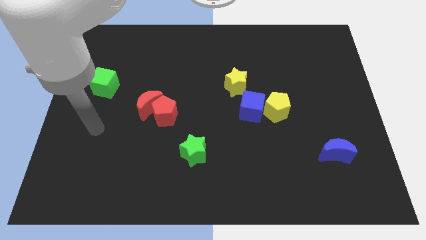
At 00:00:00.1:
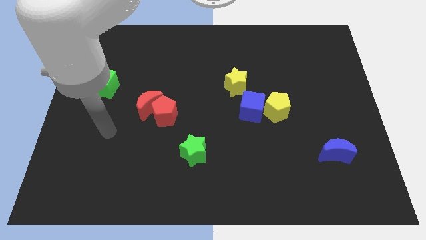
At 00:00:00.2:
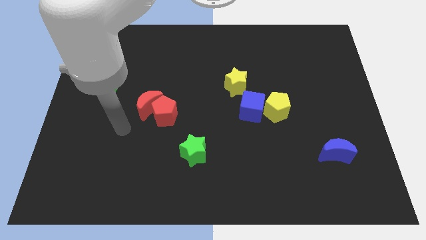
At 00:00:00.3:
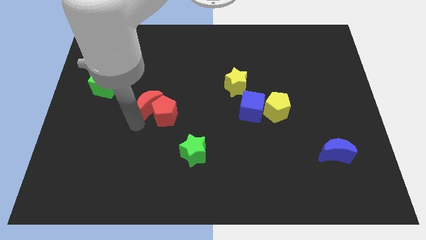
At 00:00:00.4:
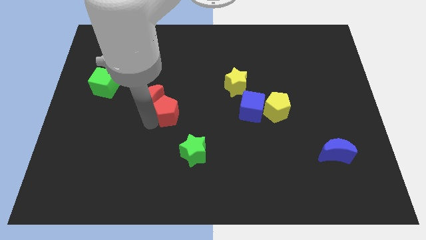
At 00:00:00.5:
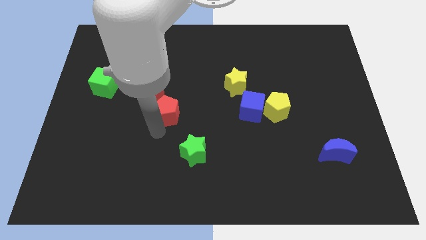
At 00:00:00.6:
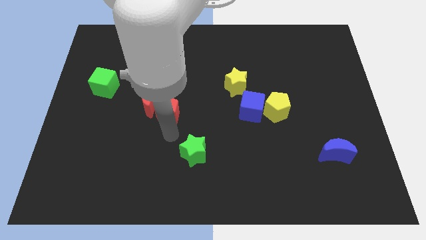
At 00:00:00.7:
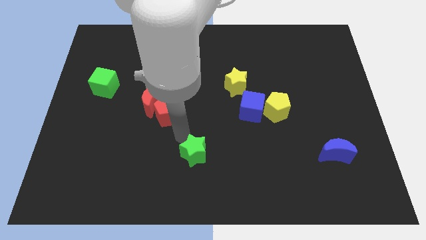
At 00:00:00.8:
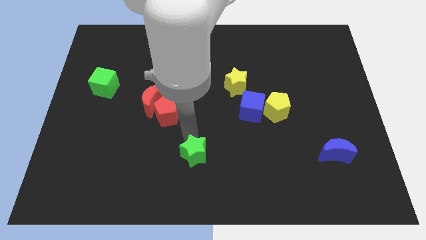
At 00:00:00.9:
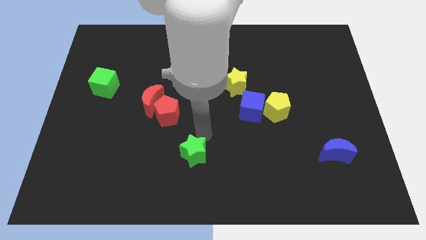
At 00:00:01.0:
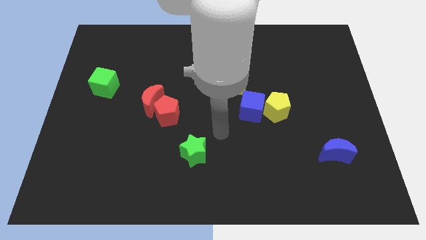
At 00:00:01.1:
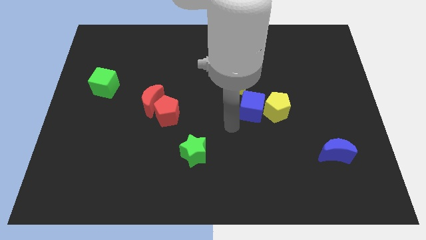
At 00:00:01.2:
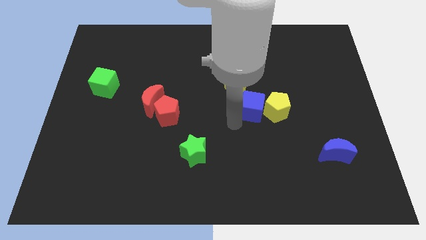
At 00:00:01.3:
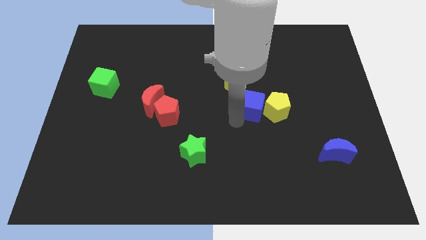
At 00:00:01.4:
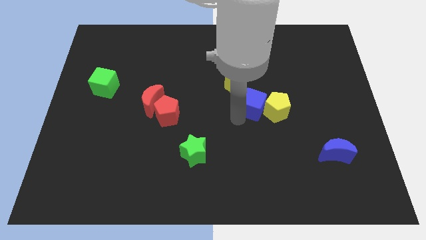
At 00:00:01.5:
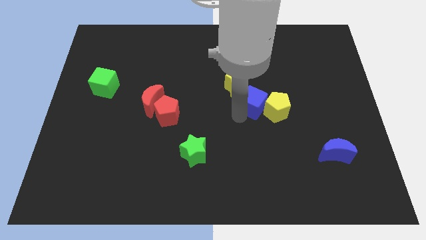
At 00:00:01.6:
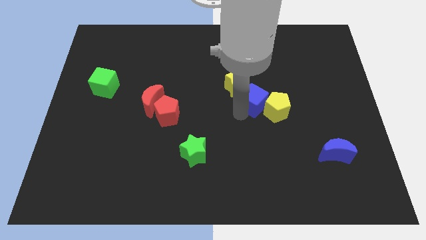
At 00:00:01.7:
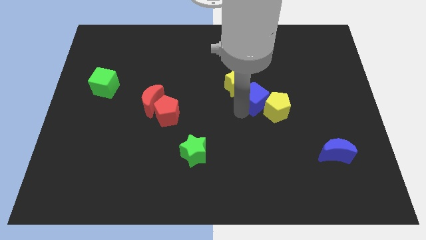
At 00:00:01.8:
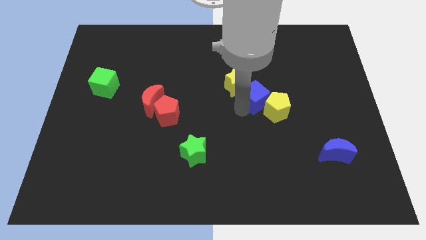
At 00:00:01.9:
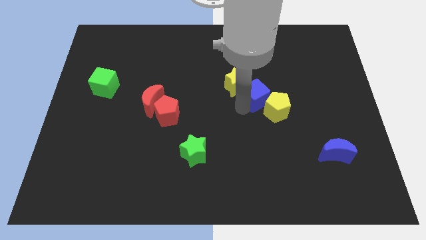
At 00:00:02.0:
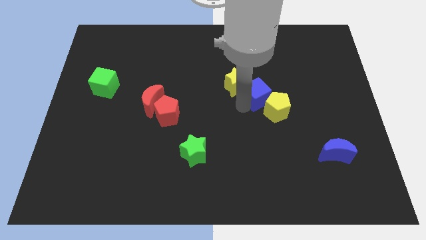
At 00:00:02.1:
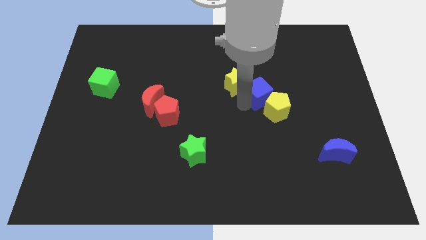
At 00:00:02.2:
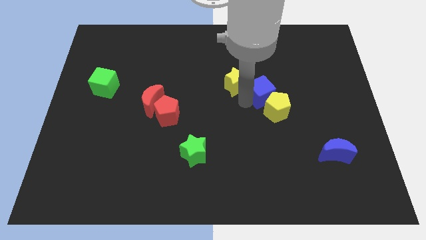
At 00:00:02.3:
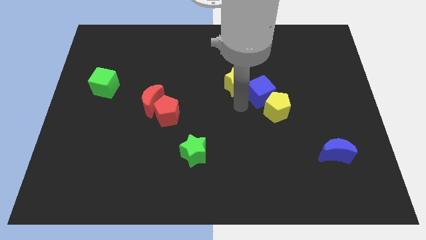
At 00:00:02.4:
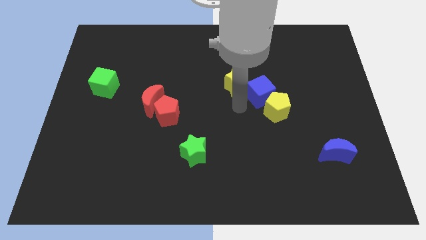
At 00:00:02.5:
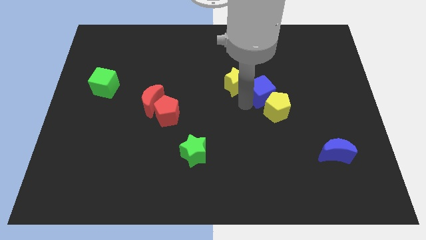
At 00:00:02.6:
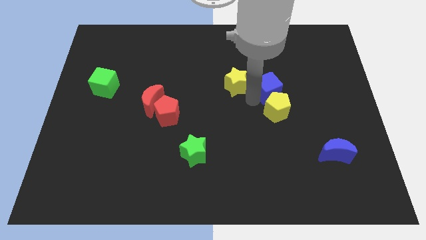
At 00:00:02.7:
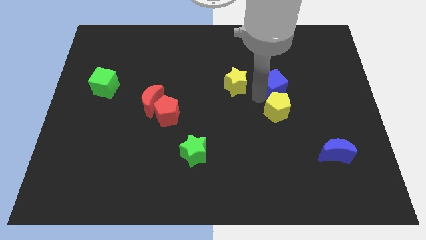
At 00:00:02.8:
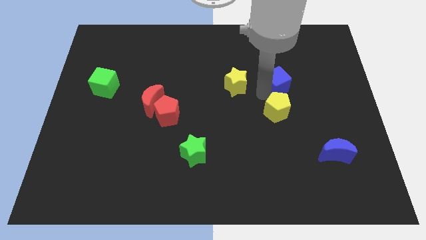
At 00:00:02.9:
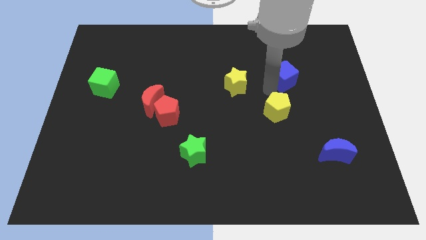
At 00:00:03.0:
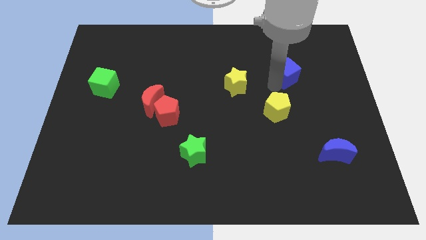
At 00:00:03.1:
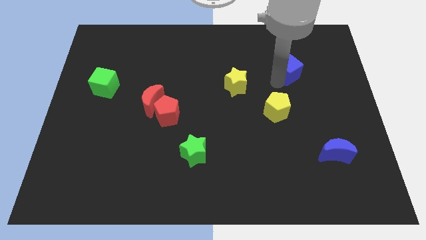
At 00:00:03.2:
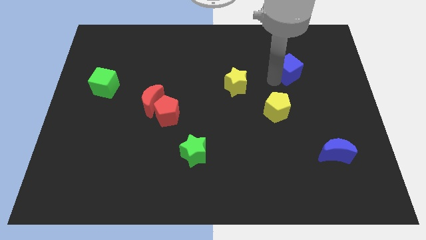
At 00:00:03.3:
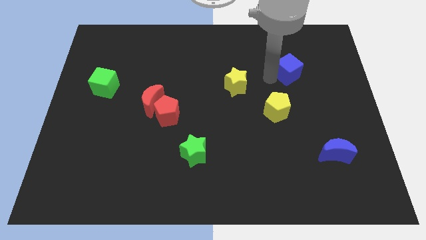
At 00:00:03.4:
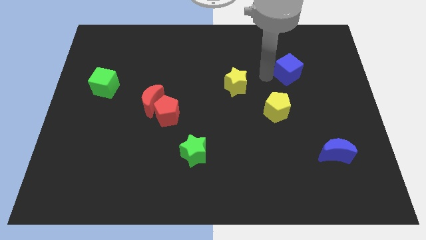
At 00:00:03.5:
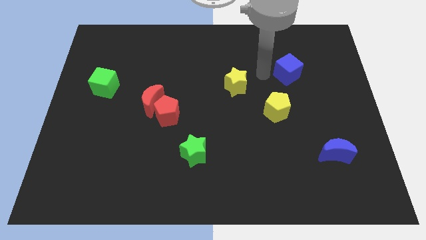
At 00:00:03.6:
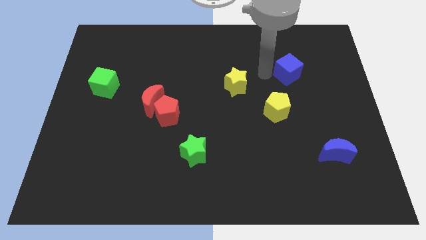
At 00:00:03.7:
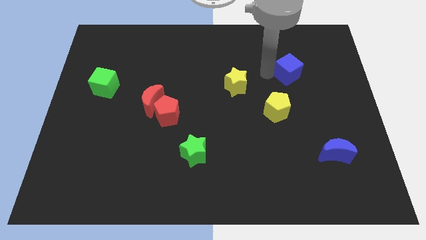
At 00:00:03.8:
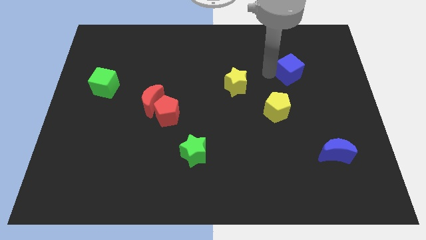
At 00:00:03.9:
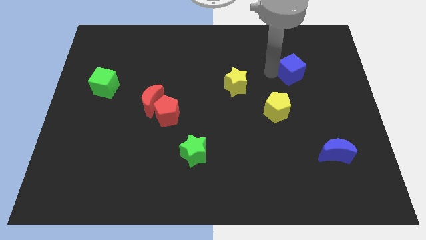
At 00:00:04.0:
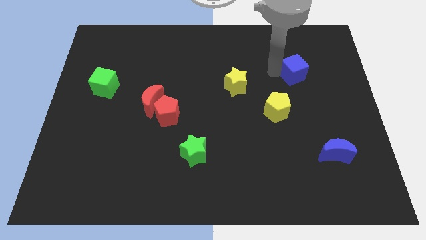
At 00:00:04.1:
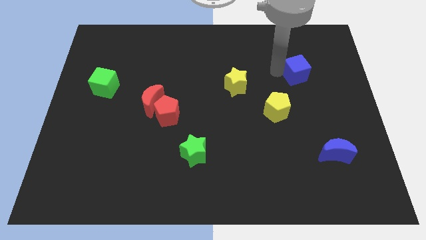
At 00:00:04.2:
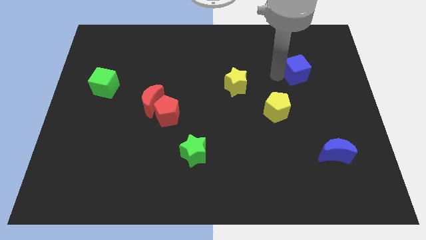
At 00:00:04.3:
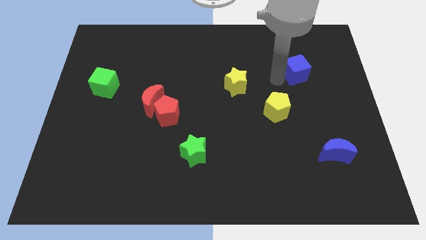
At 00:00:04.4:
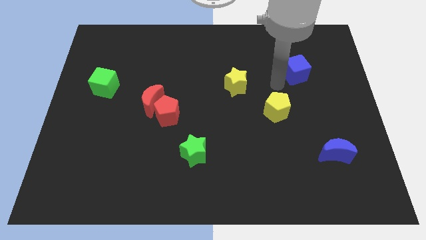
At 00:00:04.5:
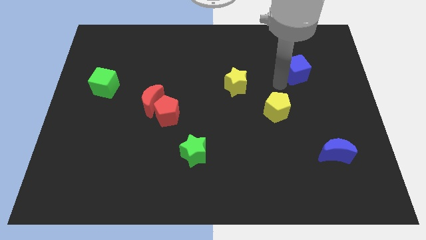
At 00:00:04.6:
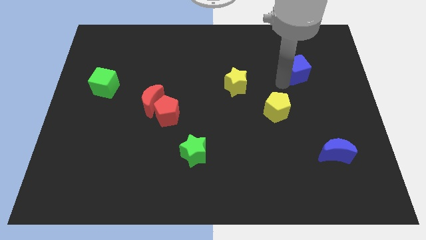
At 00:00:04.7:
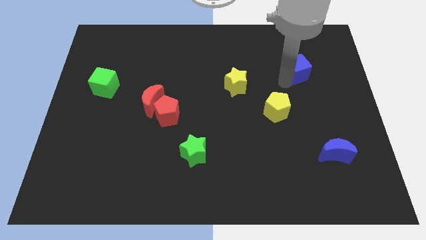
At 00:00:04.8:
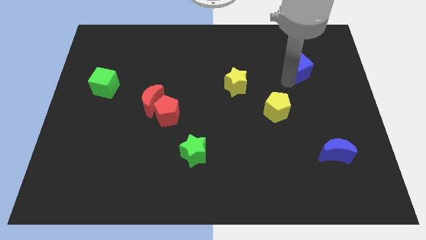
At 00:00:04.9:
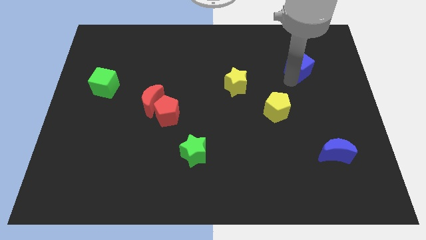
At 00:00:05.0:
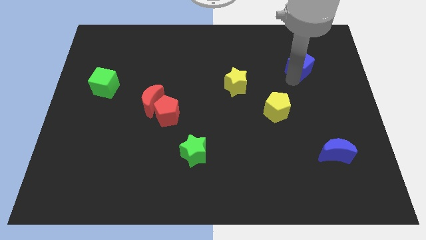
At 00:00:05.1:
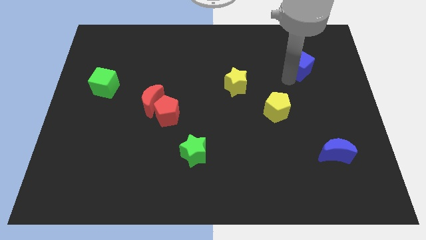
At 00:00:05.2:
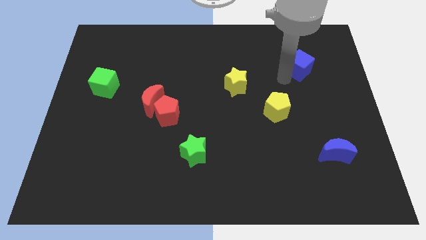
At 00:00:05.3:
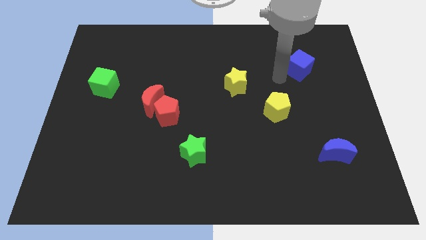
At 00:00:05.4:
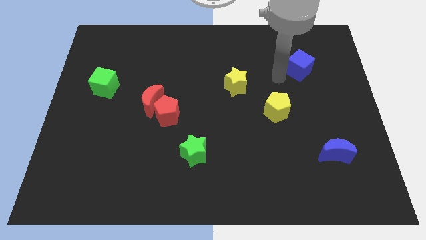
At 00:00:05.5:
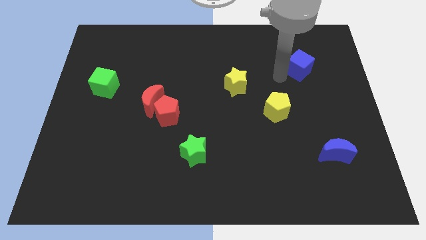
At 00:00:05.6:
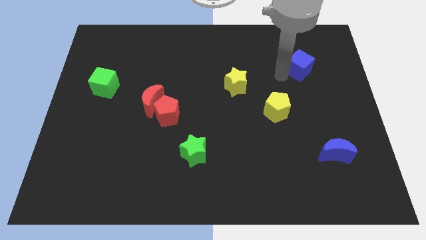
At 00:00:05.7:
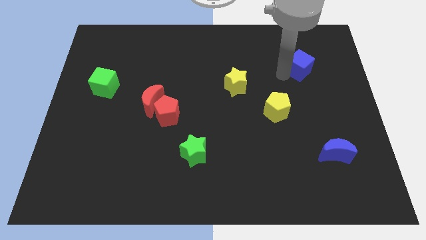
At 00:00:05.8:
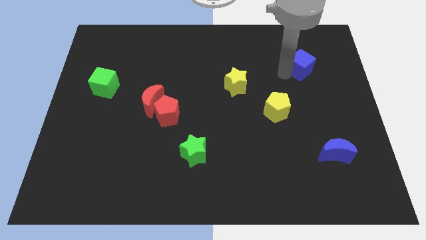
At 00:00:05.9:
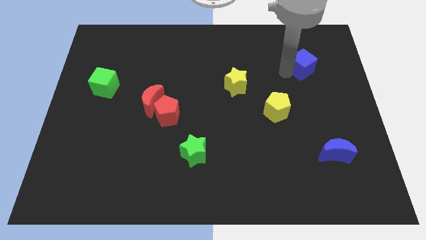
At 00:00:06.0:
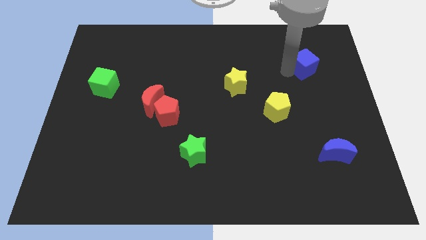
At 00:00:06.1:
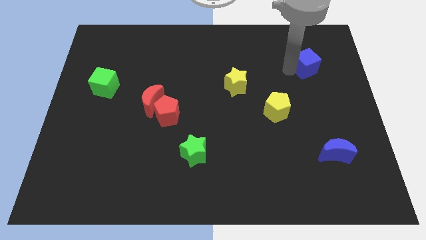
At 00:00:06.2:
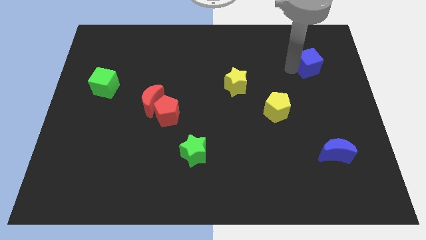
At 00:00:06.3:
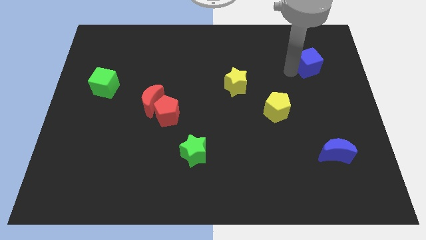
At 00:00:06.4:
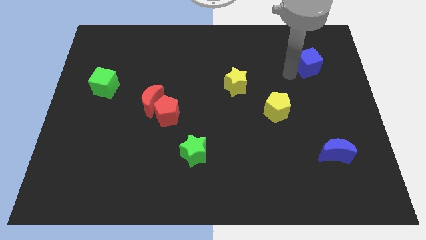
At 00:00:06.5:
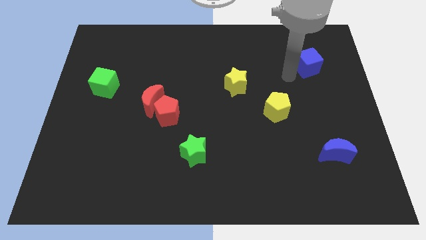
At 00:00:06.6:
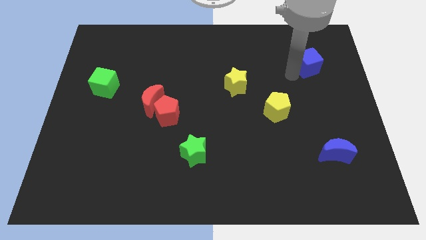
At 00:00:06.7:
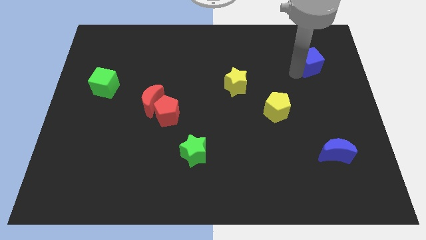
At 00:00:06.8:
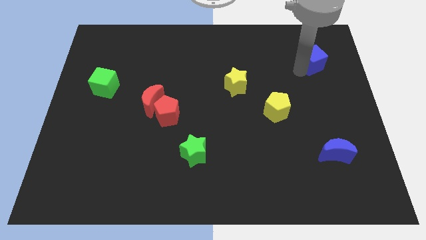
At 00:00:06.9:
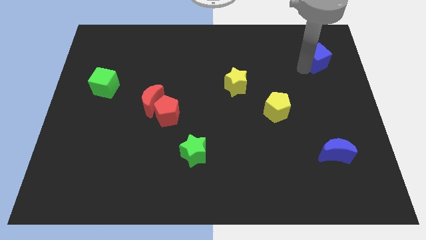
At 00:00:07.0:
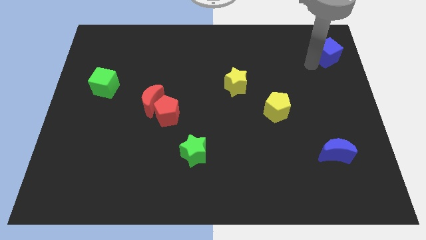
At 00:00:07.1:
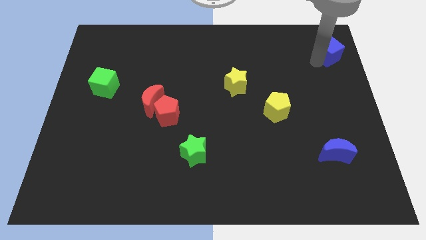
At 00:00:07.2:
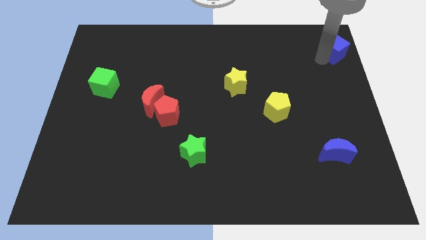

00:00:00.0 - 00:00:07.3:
put the blue cube to the upper right corner
